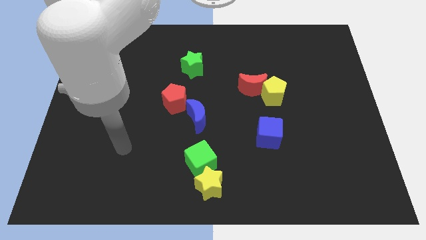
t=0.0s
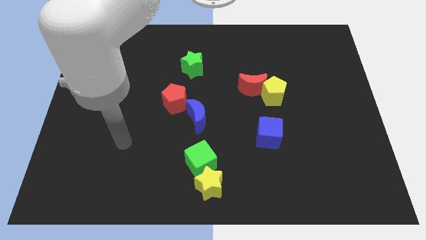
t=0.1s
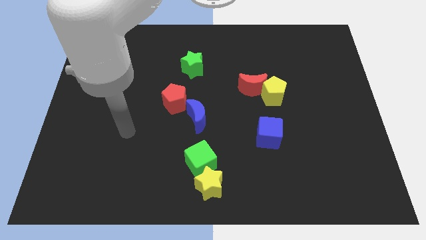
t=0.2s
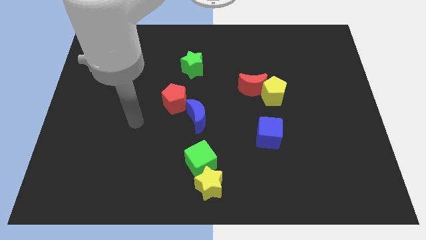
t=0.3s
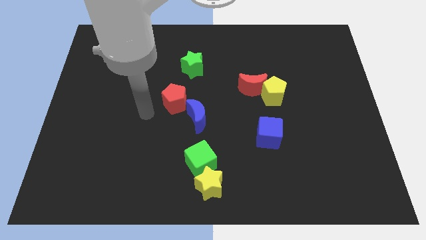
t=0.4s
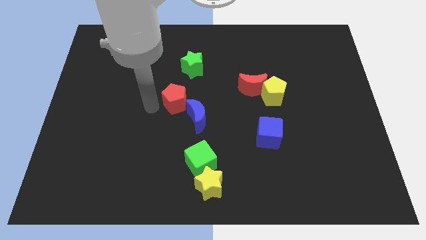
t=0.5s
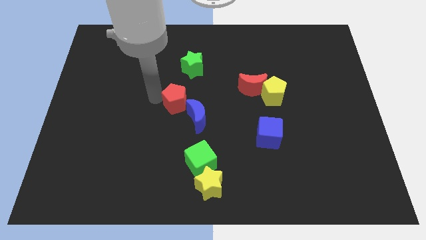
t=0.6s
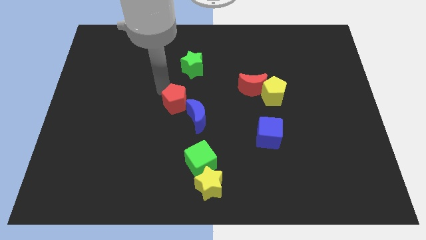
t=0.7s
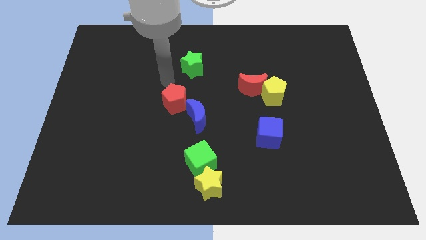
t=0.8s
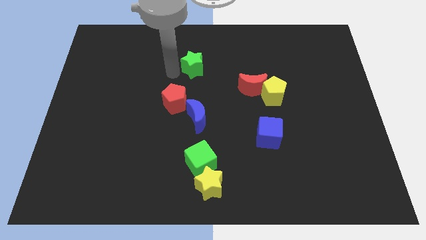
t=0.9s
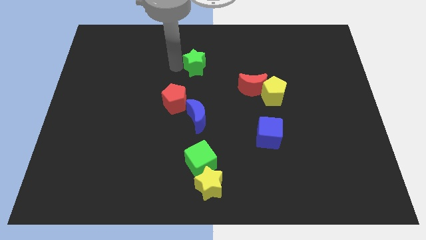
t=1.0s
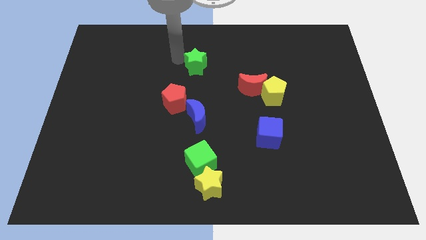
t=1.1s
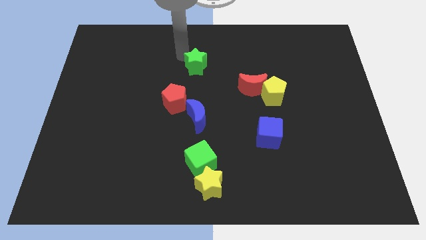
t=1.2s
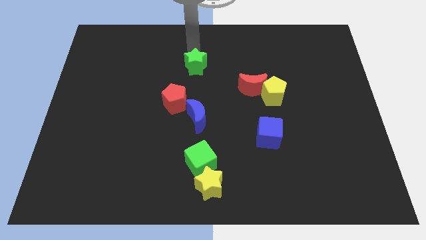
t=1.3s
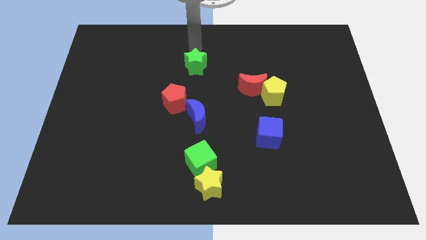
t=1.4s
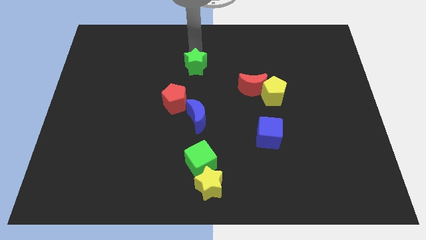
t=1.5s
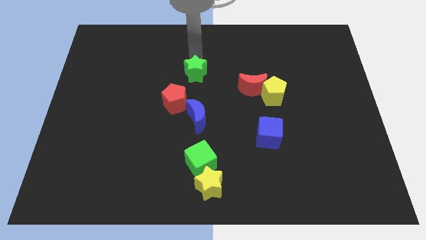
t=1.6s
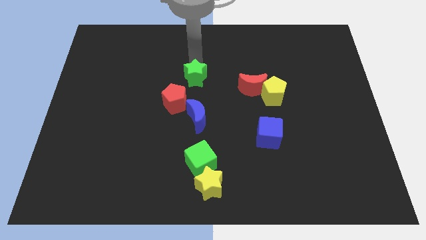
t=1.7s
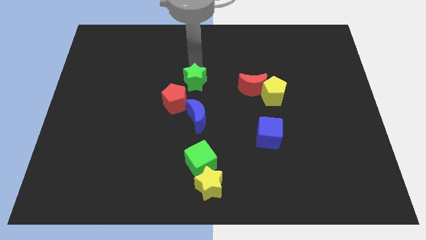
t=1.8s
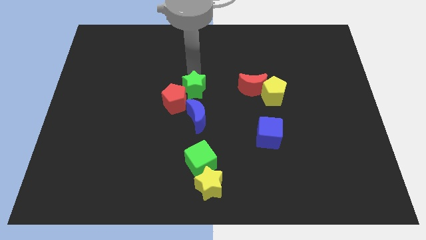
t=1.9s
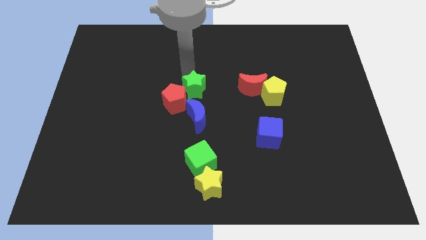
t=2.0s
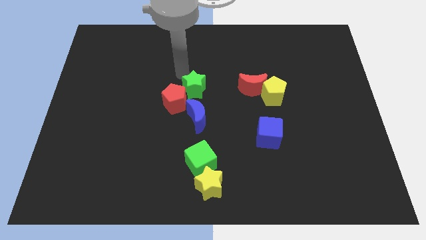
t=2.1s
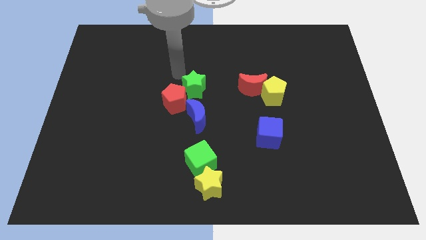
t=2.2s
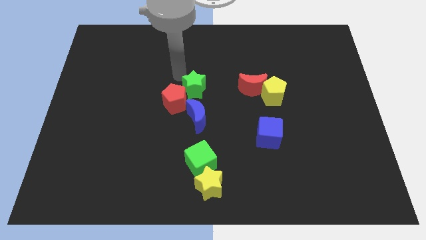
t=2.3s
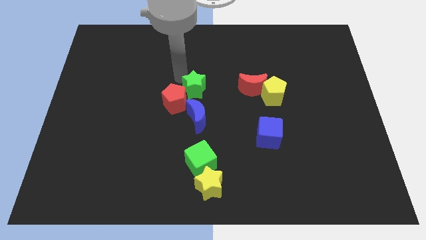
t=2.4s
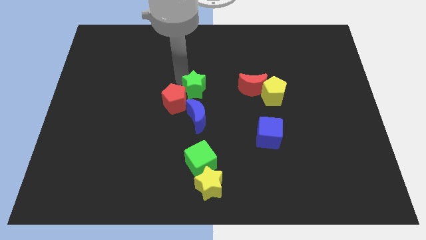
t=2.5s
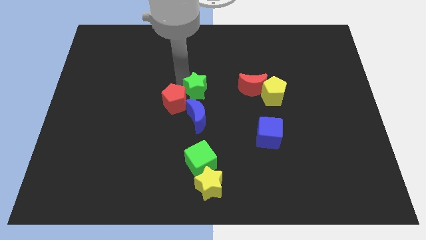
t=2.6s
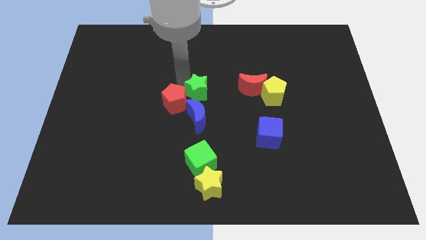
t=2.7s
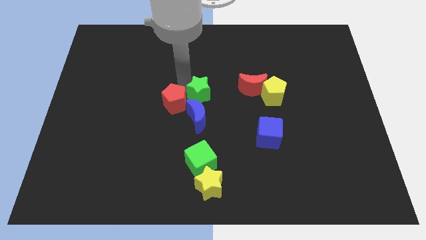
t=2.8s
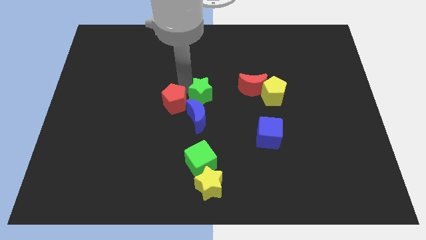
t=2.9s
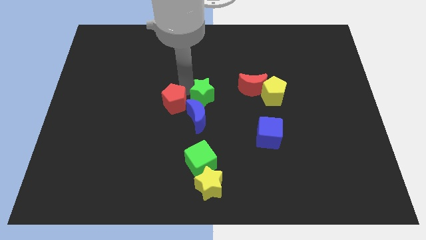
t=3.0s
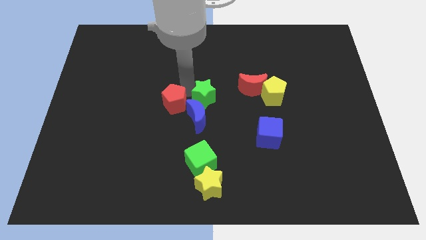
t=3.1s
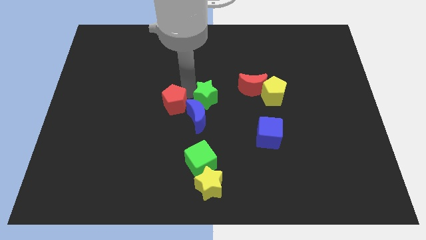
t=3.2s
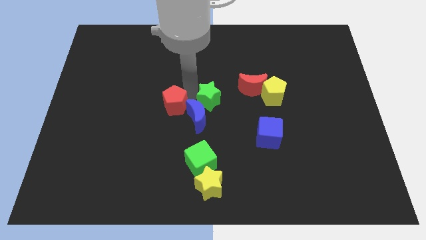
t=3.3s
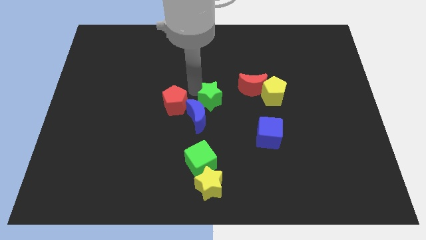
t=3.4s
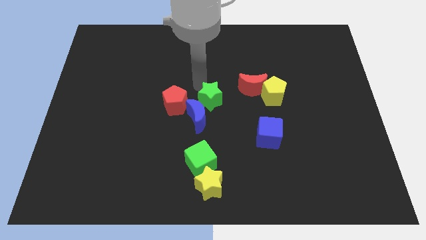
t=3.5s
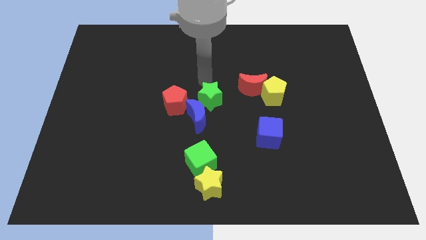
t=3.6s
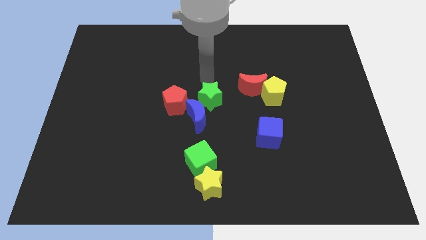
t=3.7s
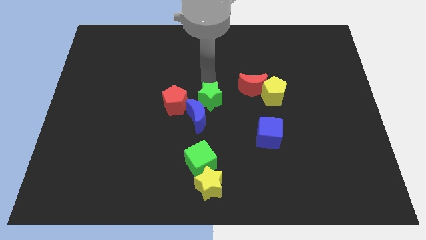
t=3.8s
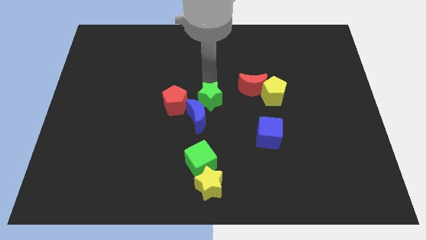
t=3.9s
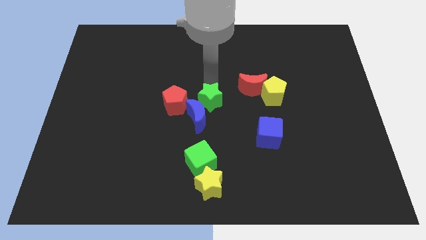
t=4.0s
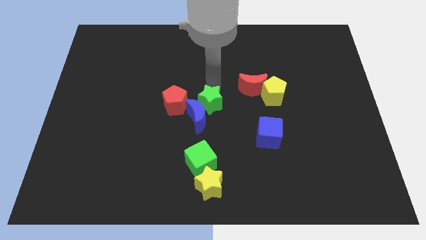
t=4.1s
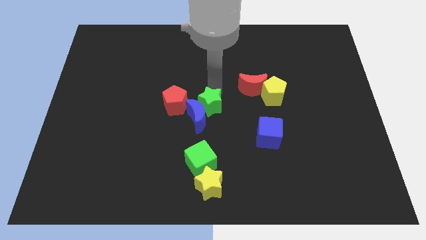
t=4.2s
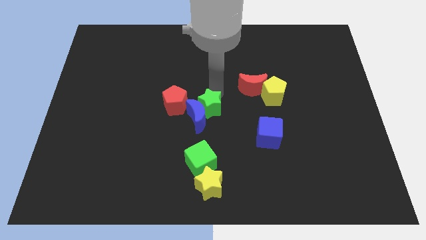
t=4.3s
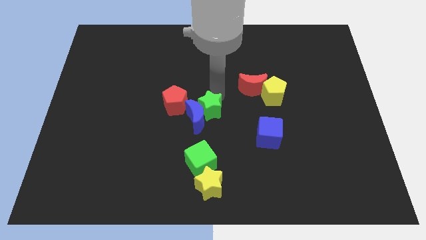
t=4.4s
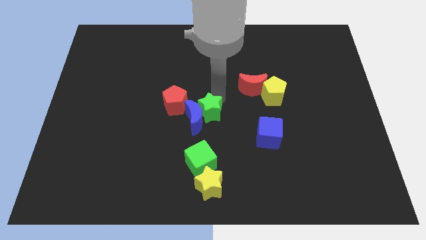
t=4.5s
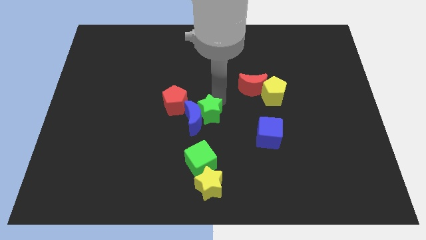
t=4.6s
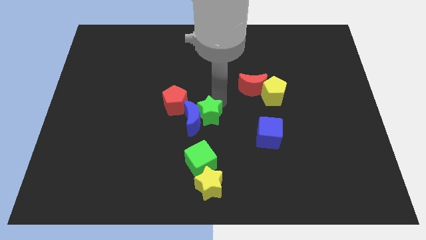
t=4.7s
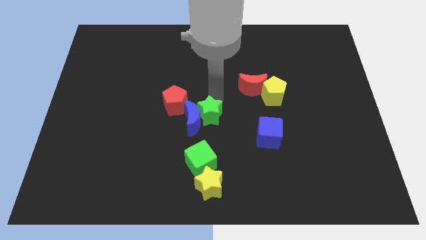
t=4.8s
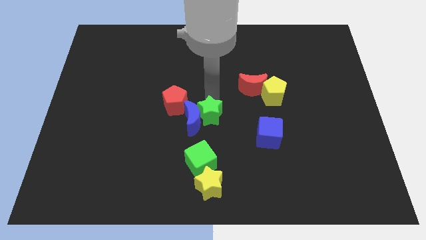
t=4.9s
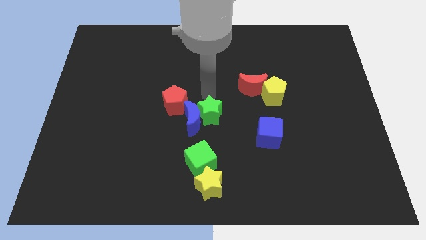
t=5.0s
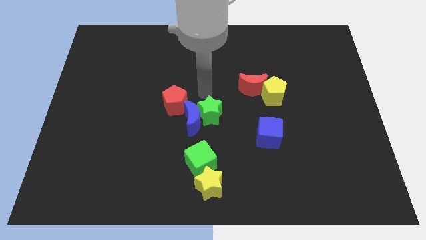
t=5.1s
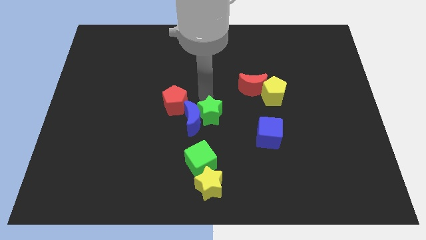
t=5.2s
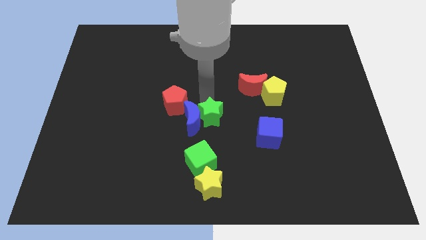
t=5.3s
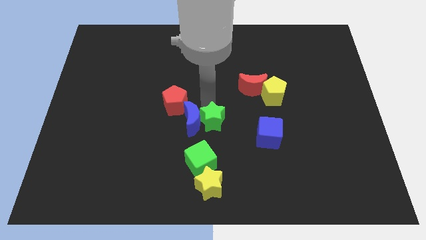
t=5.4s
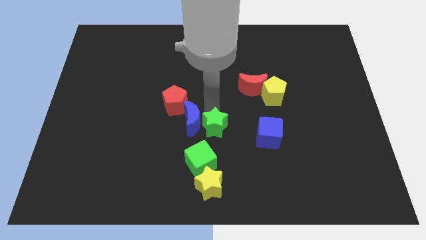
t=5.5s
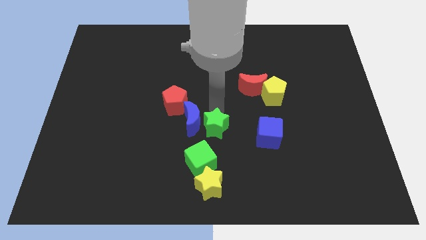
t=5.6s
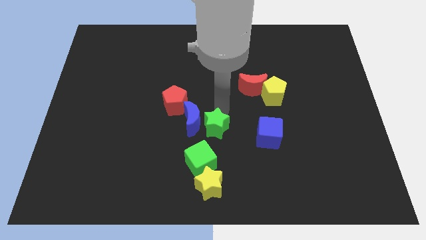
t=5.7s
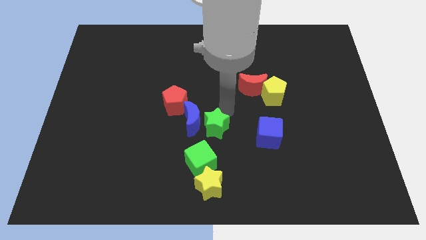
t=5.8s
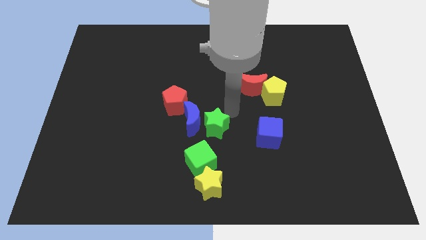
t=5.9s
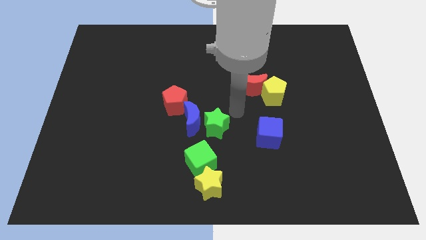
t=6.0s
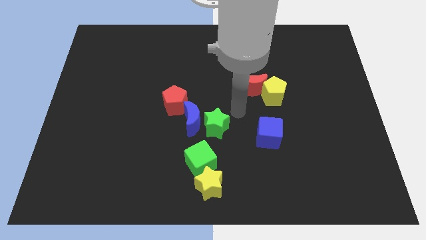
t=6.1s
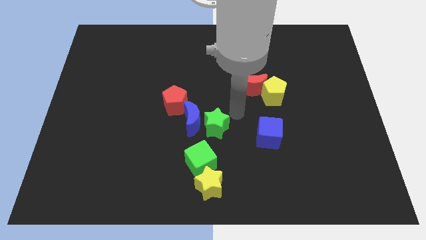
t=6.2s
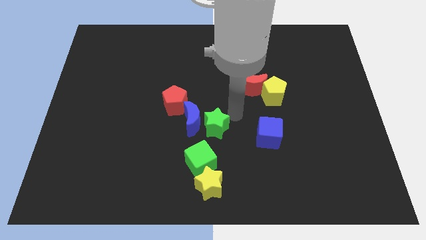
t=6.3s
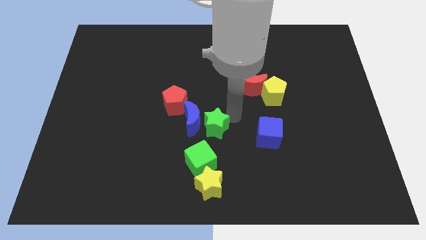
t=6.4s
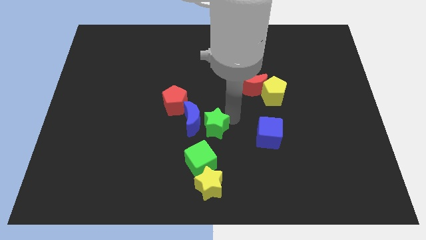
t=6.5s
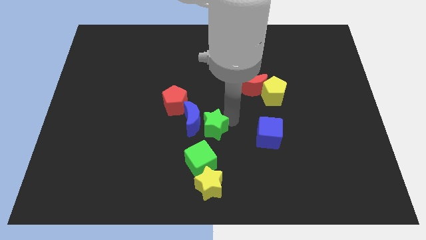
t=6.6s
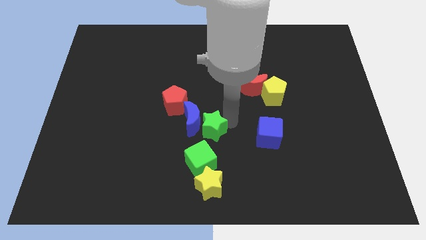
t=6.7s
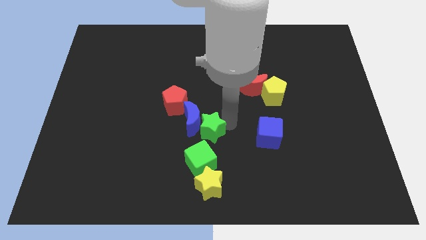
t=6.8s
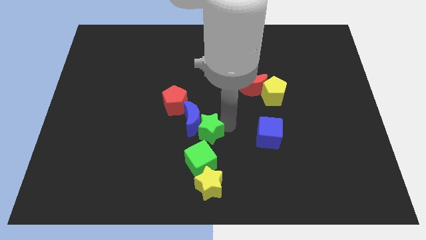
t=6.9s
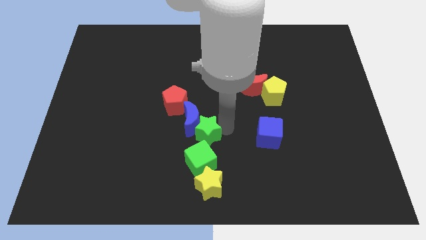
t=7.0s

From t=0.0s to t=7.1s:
slide the green star downwards
